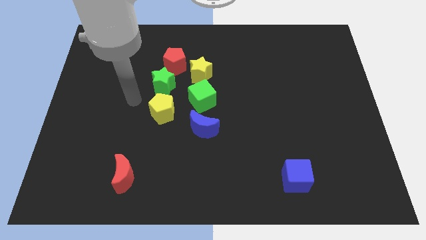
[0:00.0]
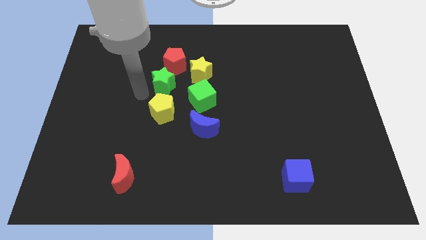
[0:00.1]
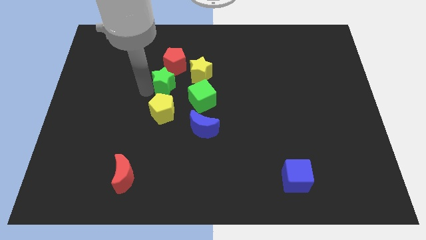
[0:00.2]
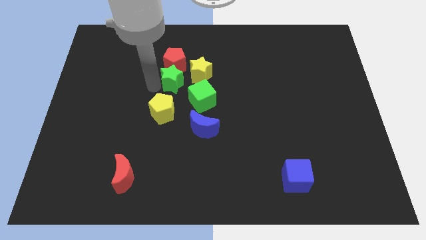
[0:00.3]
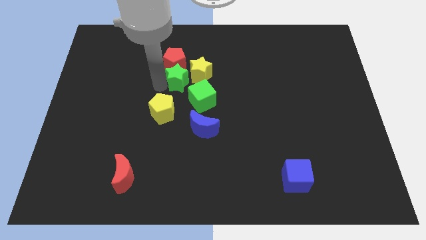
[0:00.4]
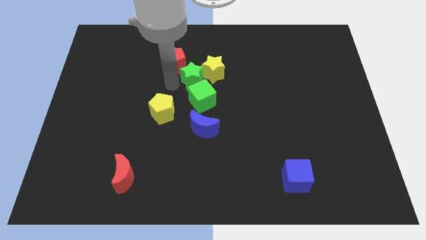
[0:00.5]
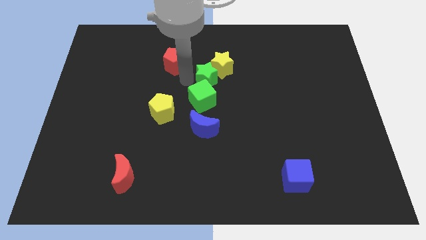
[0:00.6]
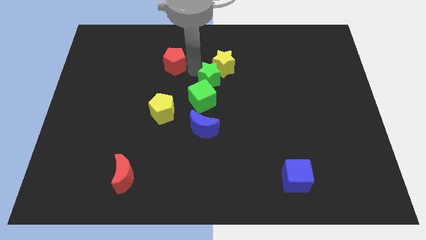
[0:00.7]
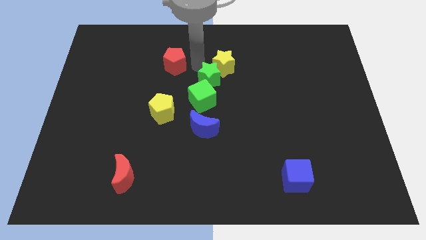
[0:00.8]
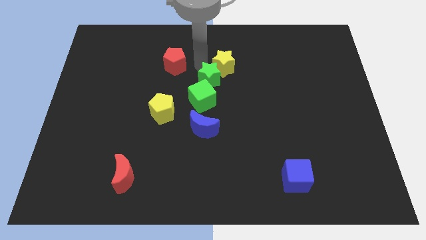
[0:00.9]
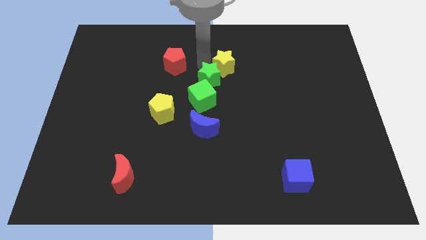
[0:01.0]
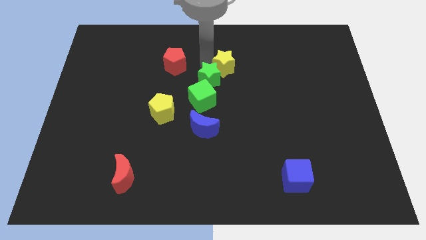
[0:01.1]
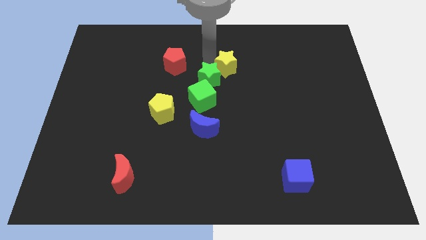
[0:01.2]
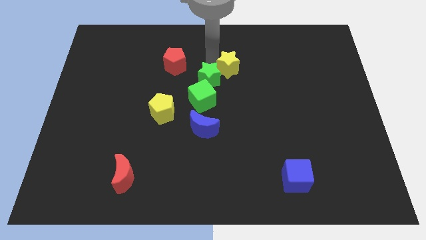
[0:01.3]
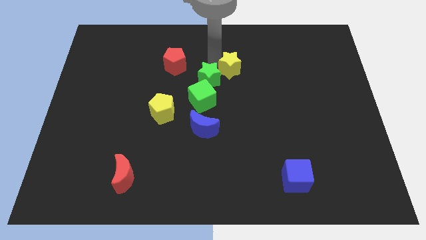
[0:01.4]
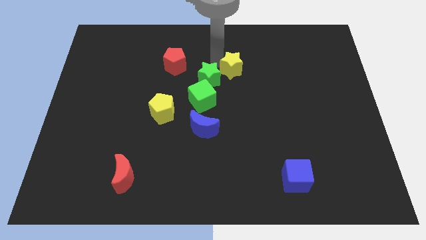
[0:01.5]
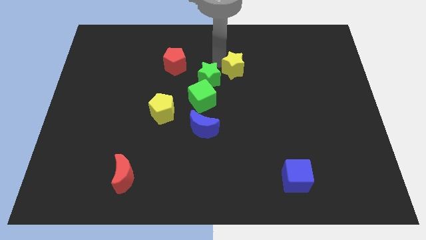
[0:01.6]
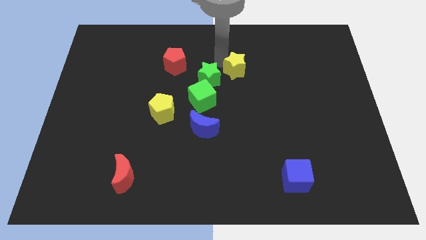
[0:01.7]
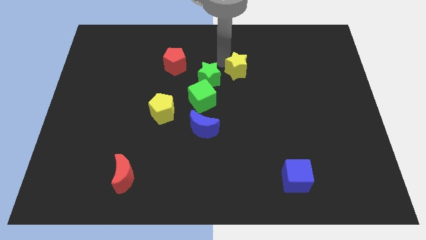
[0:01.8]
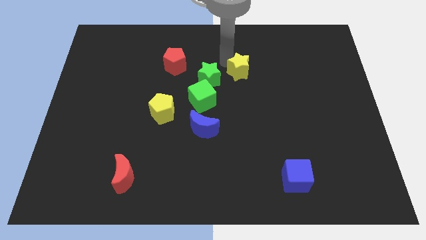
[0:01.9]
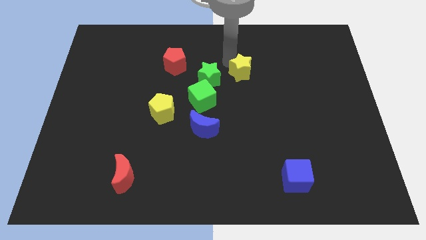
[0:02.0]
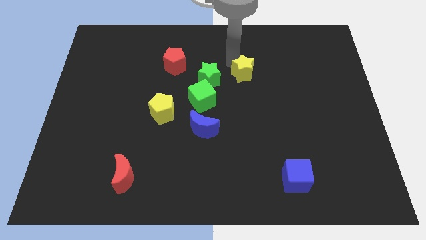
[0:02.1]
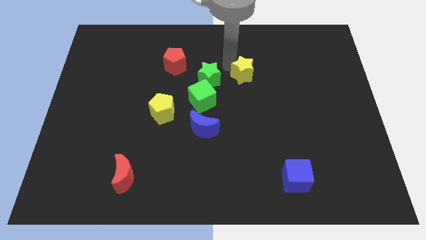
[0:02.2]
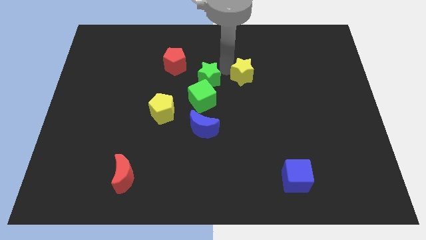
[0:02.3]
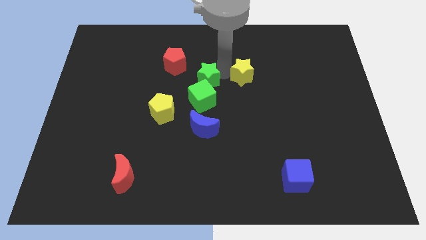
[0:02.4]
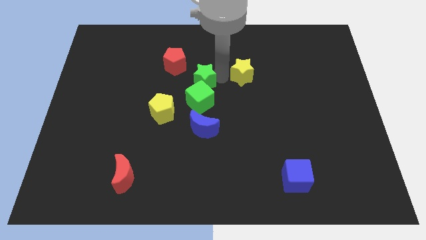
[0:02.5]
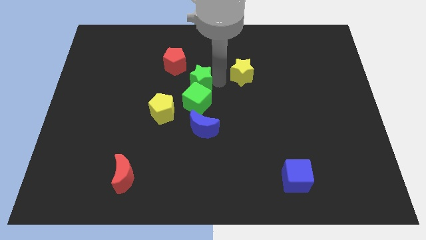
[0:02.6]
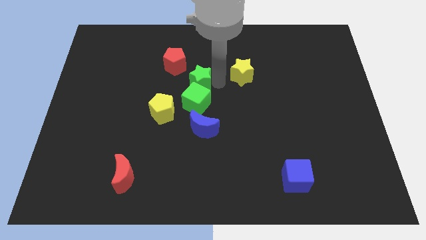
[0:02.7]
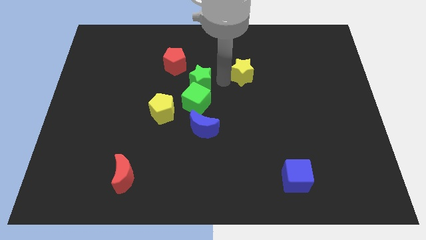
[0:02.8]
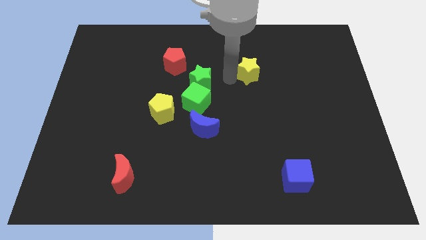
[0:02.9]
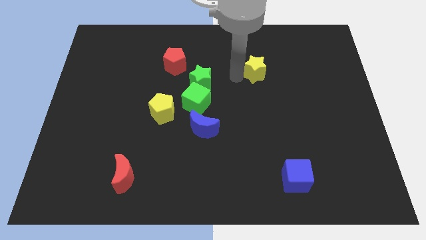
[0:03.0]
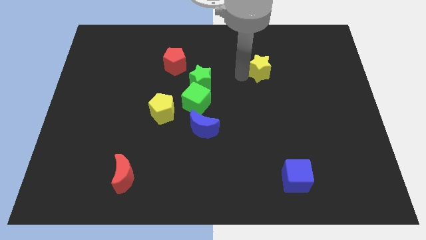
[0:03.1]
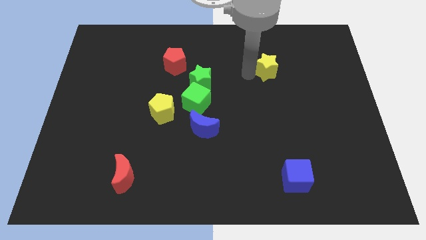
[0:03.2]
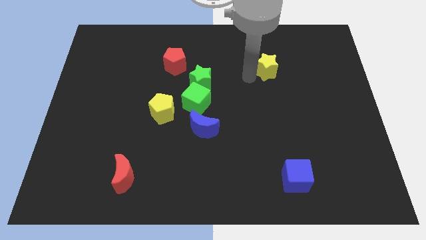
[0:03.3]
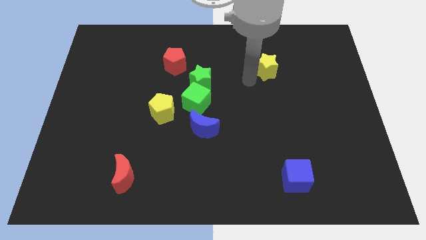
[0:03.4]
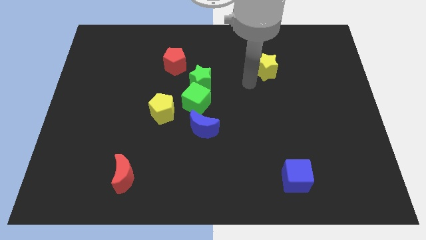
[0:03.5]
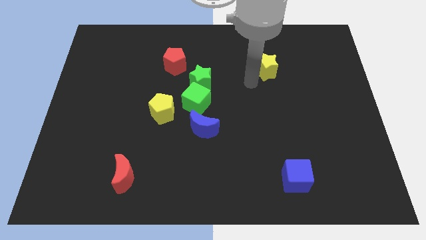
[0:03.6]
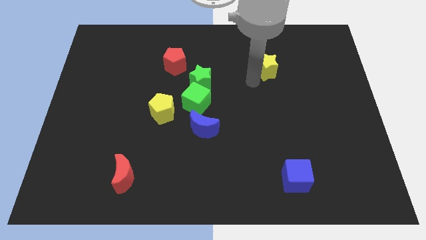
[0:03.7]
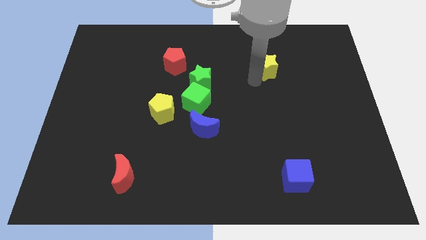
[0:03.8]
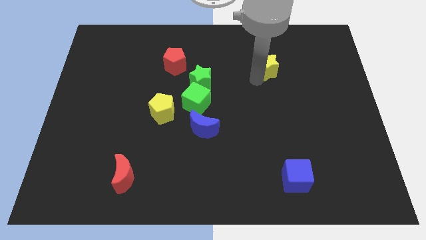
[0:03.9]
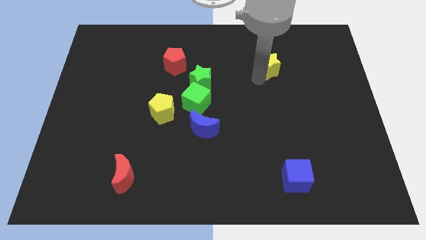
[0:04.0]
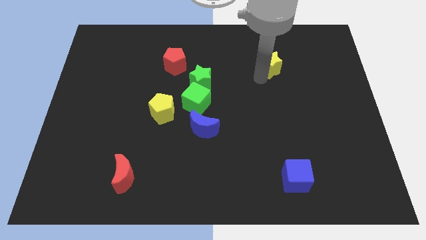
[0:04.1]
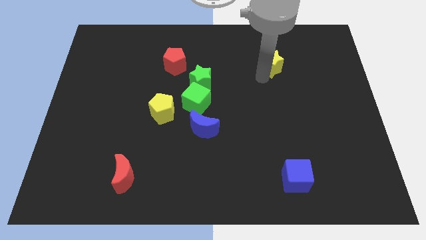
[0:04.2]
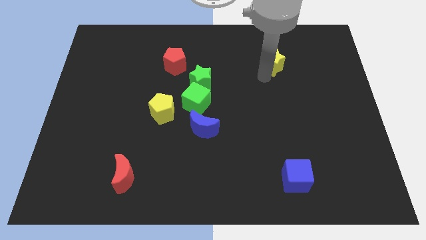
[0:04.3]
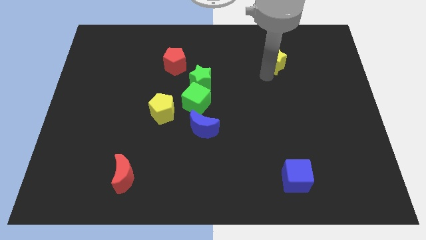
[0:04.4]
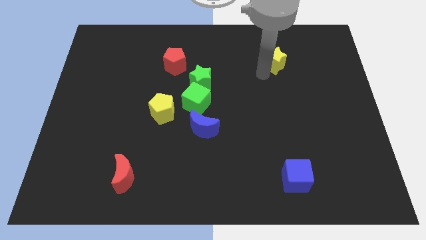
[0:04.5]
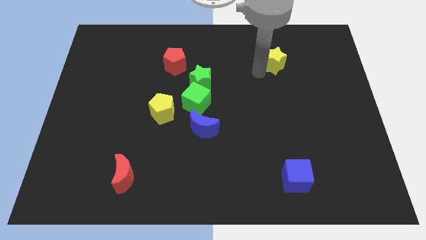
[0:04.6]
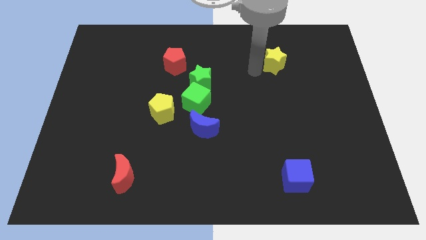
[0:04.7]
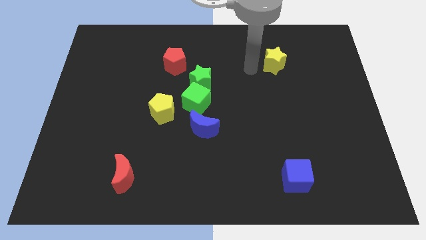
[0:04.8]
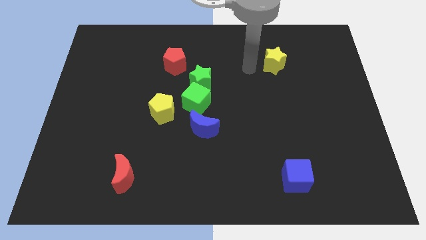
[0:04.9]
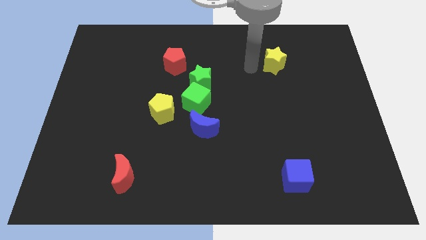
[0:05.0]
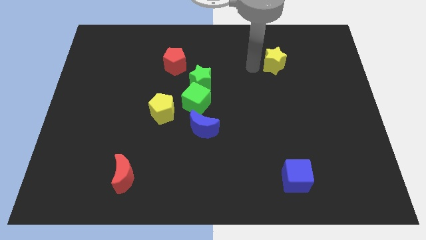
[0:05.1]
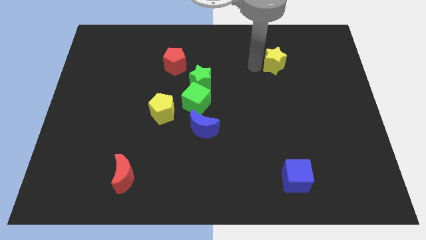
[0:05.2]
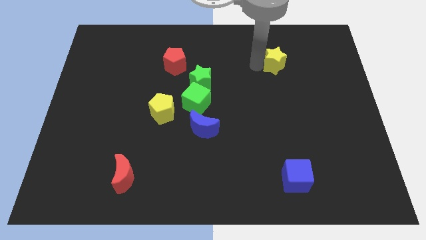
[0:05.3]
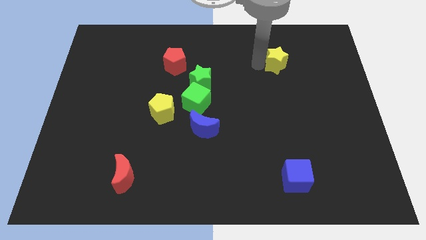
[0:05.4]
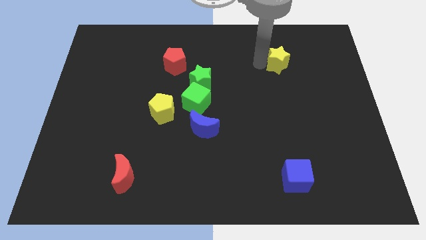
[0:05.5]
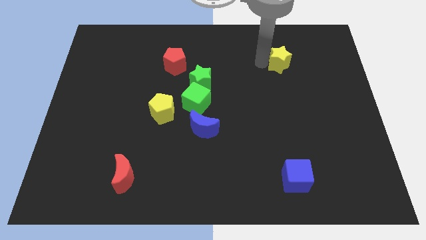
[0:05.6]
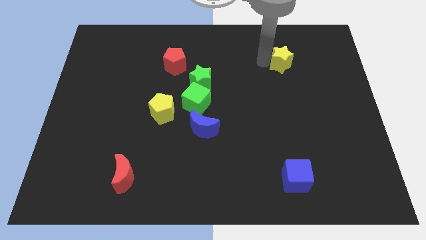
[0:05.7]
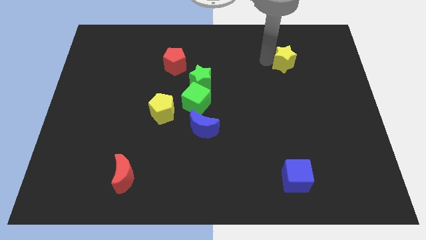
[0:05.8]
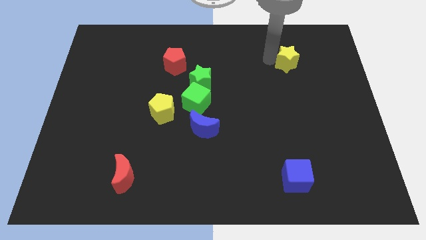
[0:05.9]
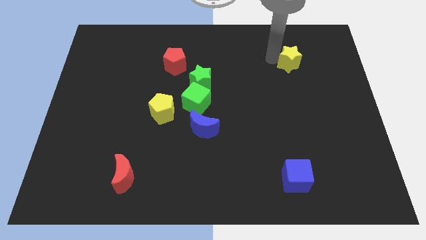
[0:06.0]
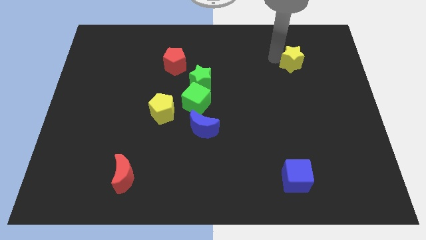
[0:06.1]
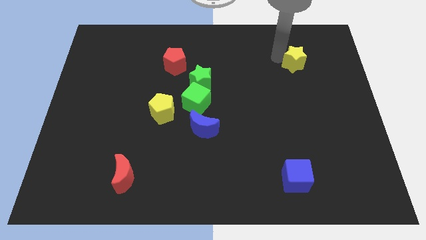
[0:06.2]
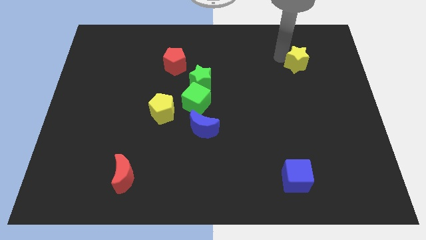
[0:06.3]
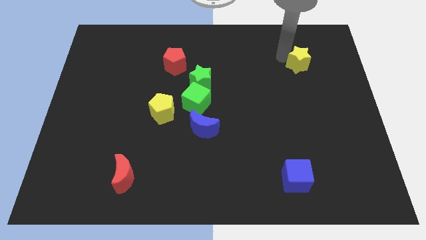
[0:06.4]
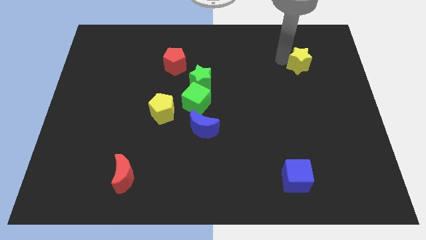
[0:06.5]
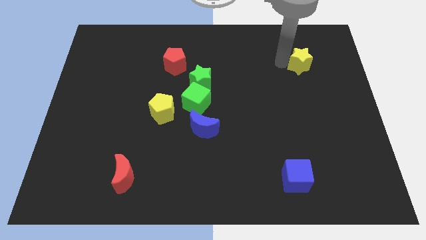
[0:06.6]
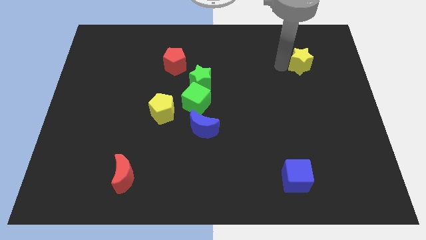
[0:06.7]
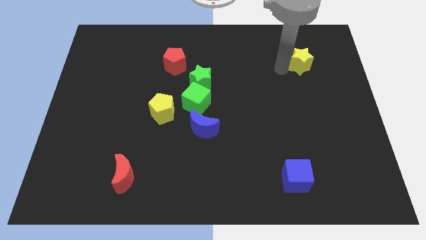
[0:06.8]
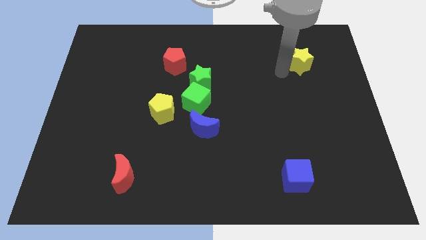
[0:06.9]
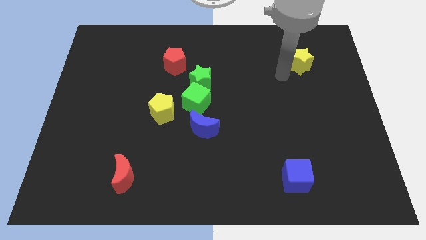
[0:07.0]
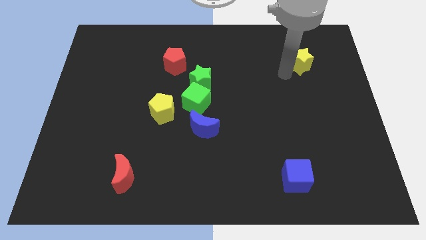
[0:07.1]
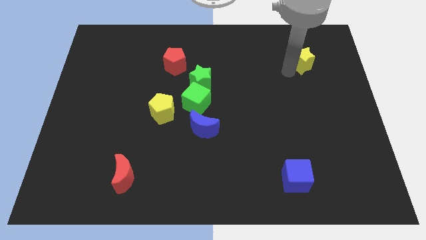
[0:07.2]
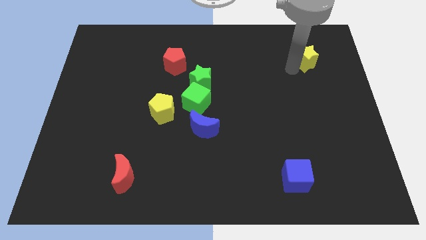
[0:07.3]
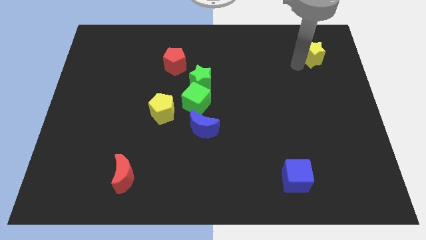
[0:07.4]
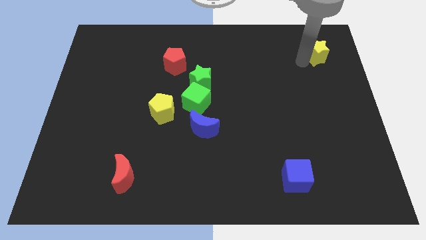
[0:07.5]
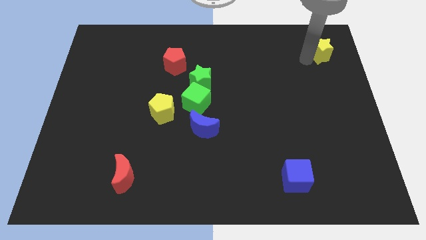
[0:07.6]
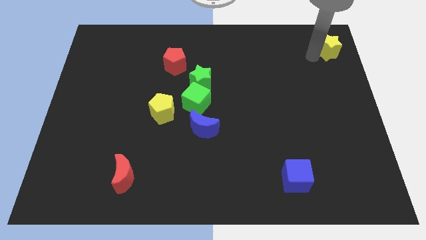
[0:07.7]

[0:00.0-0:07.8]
push the yellow star to the top right of the board
